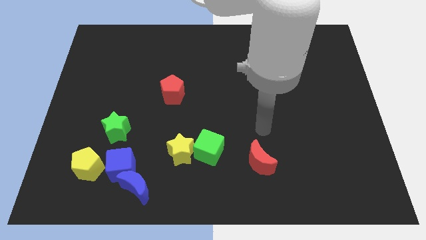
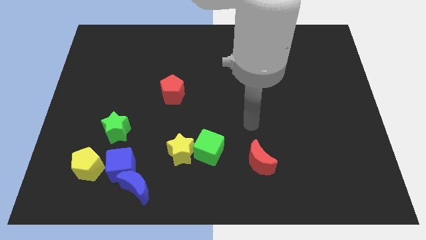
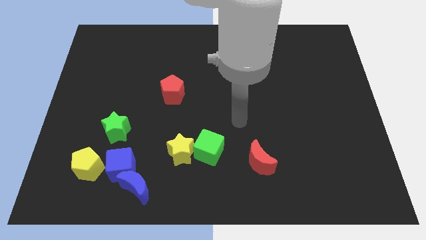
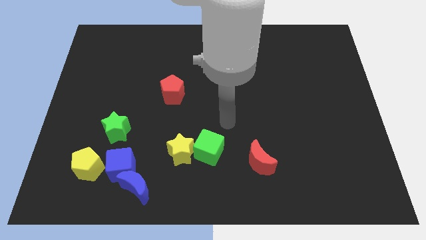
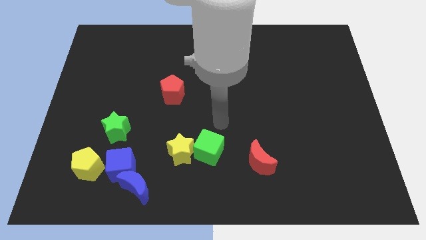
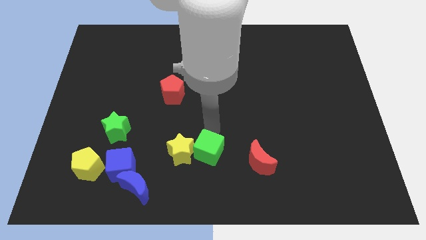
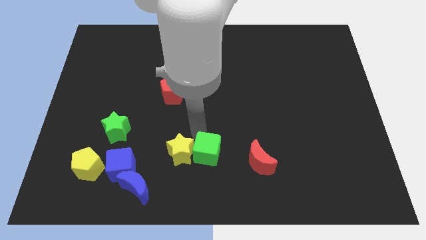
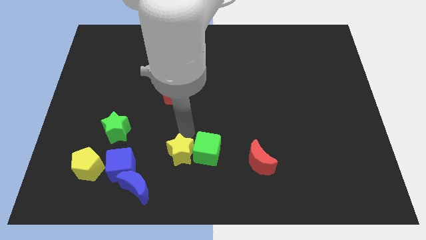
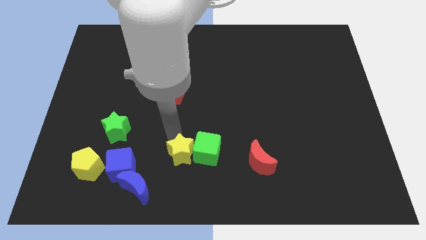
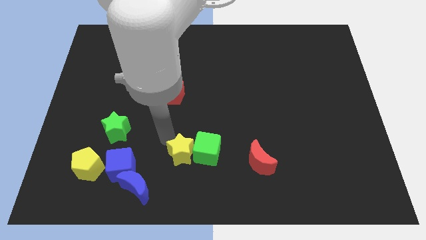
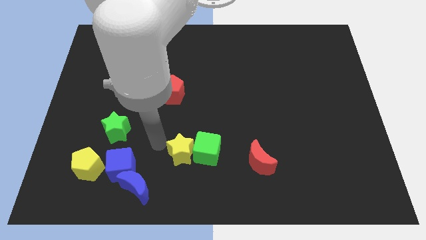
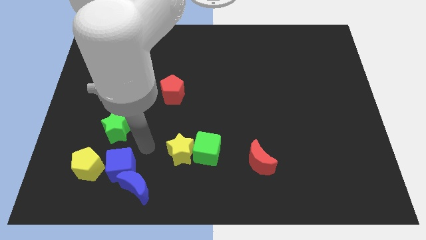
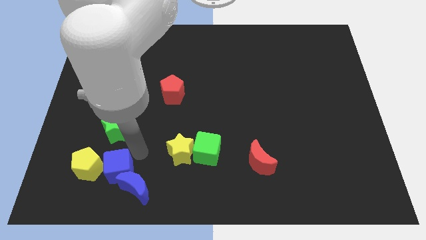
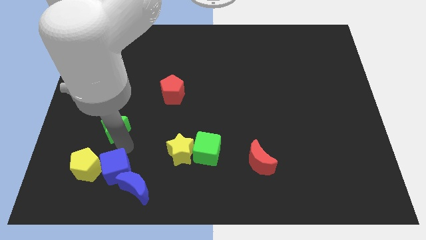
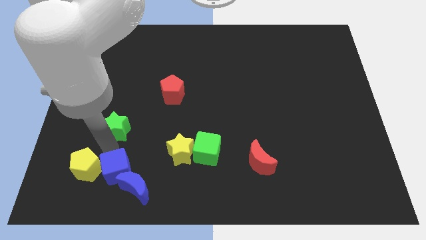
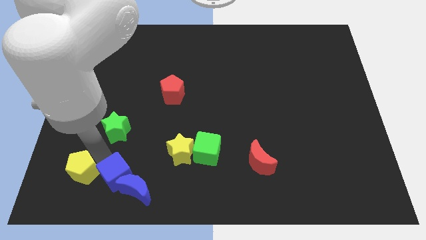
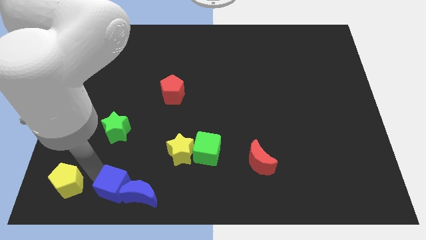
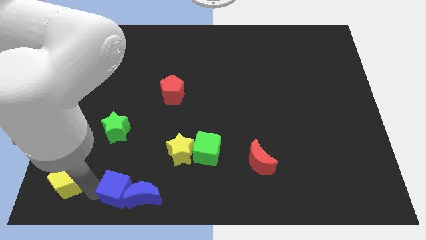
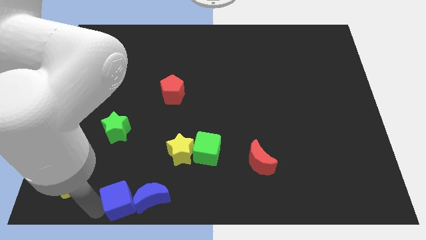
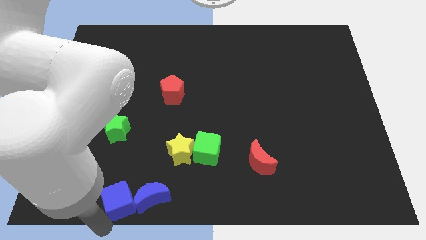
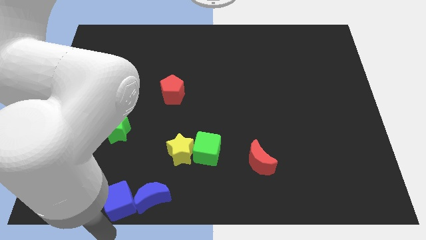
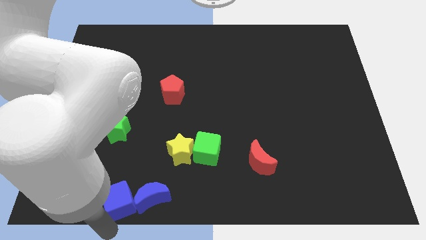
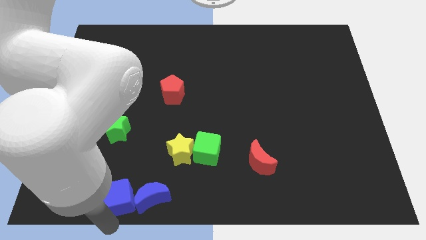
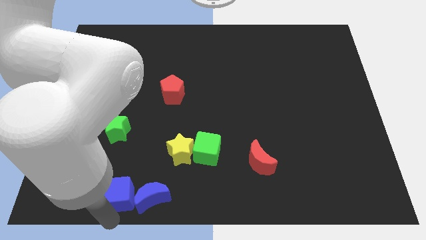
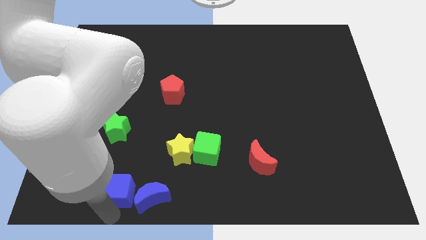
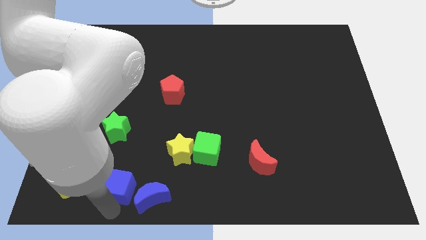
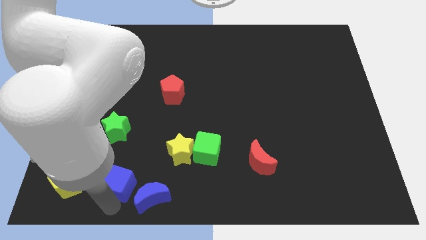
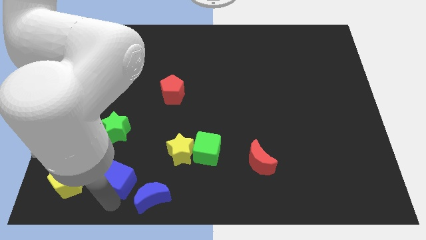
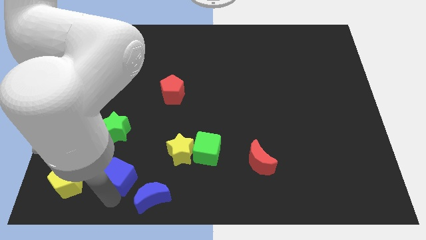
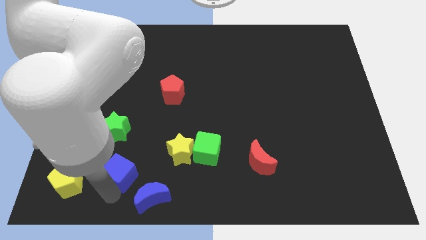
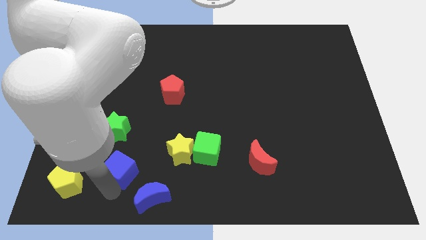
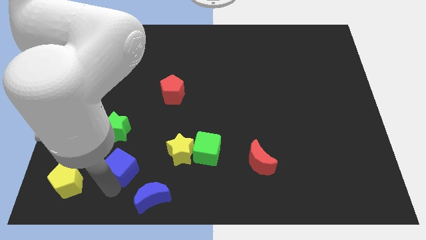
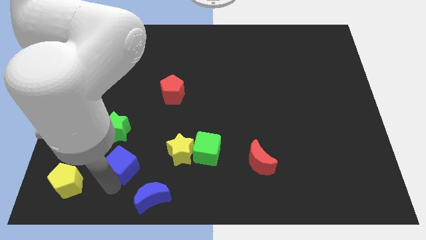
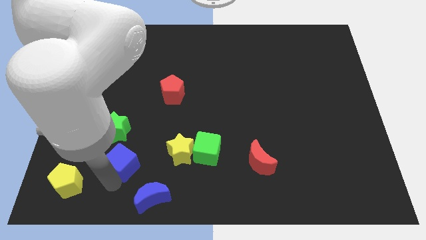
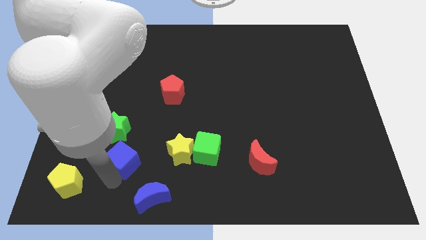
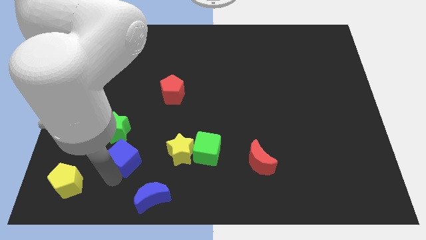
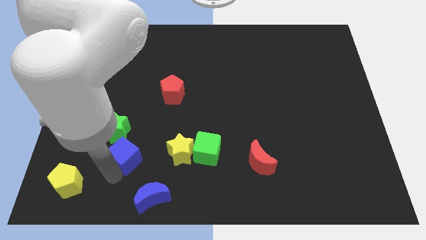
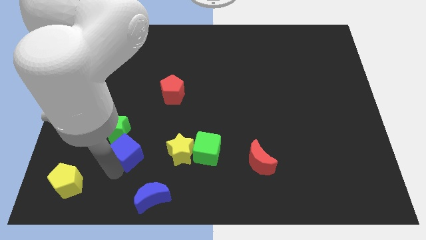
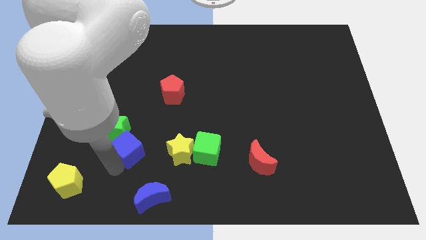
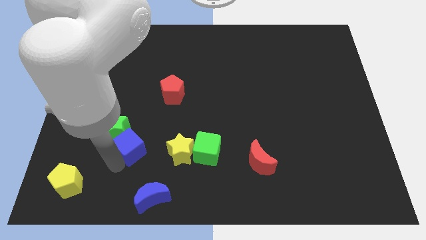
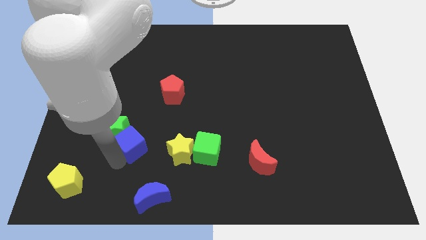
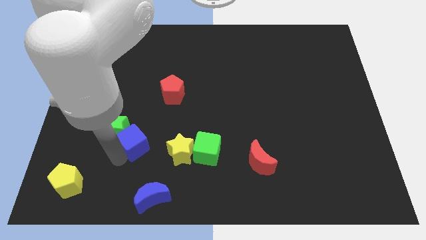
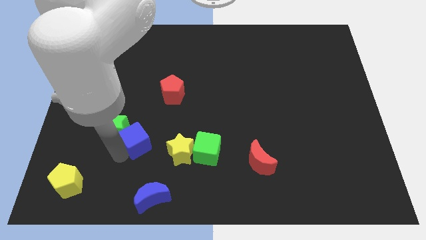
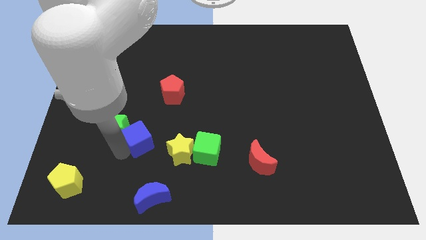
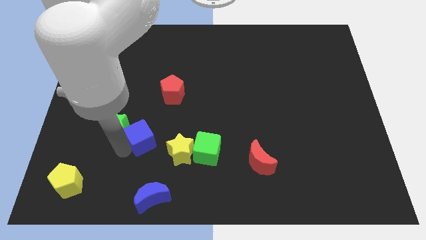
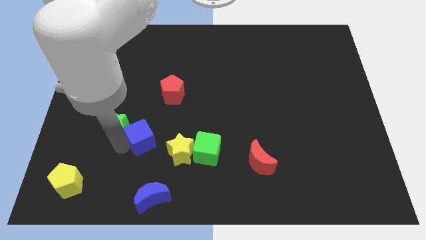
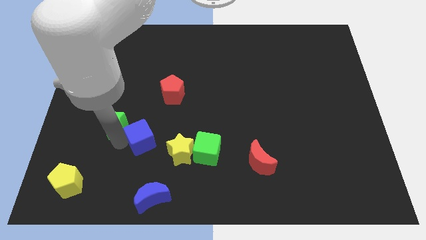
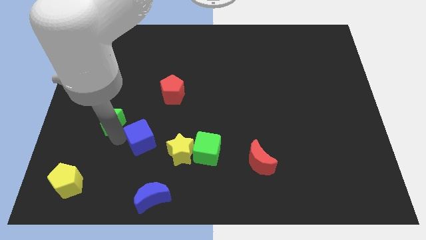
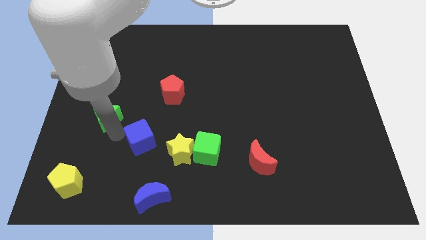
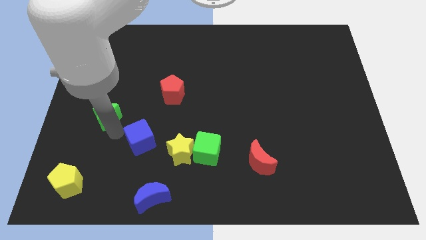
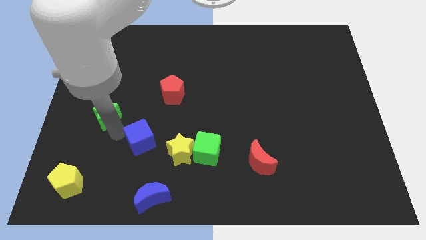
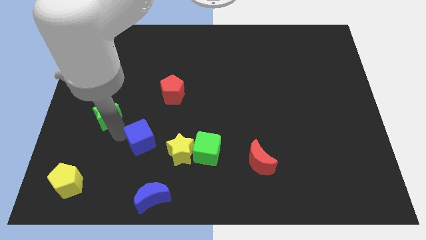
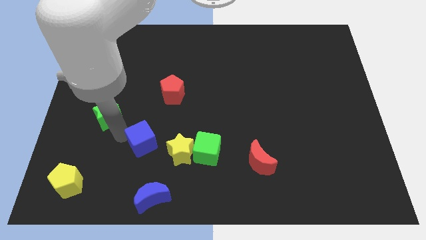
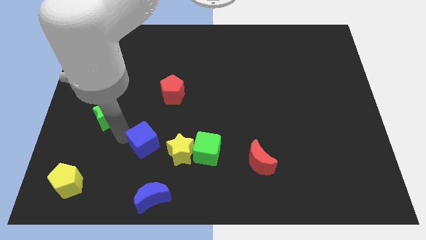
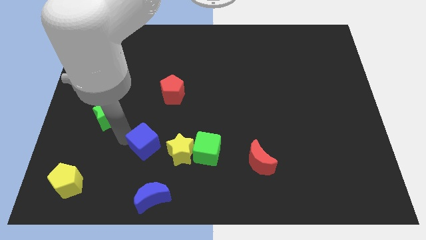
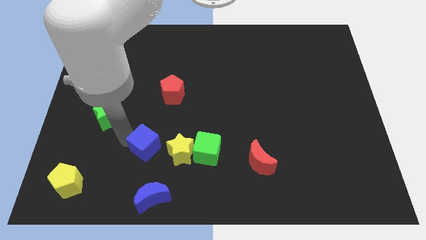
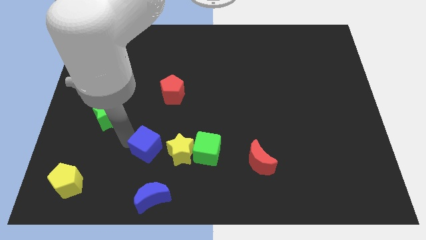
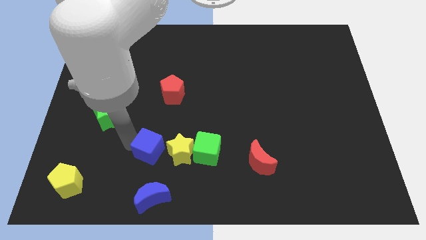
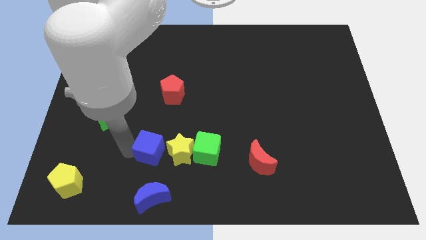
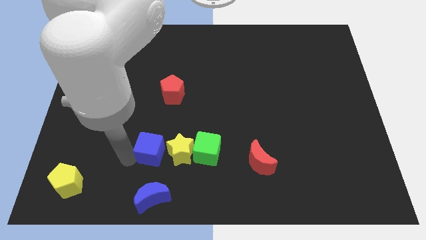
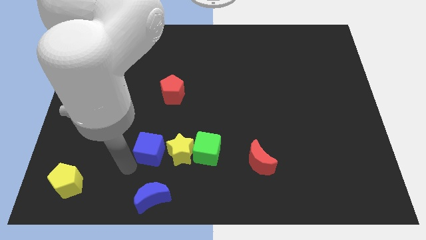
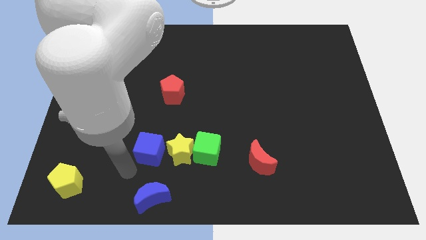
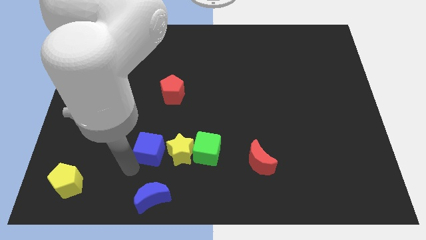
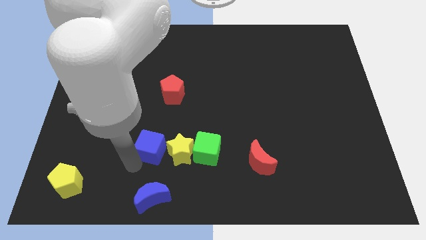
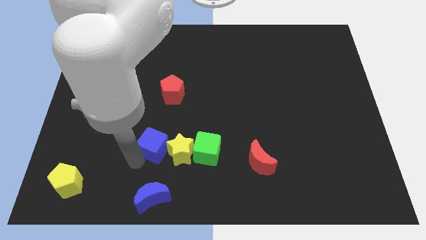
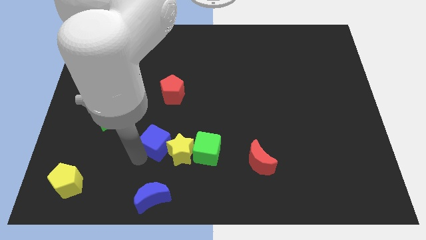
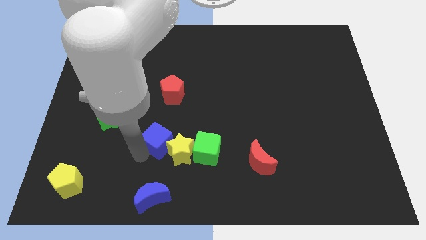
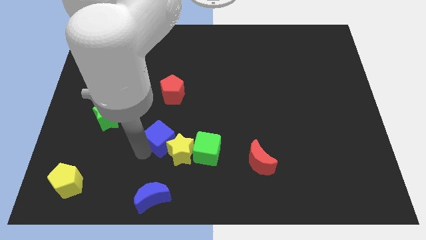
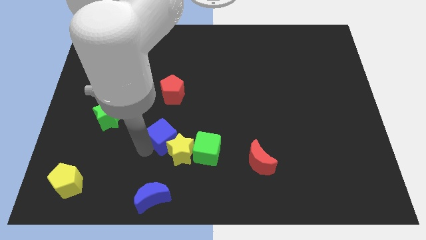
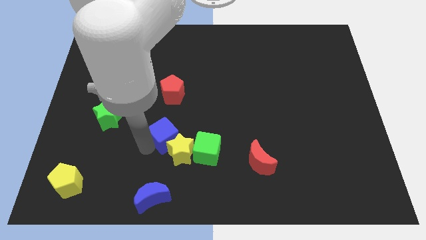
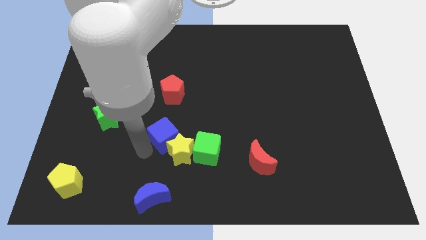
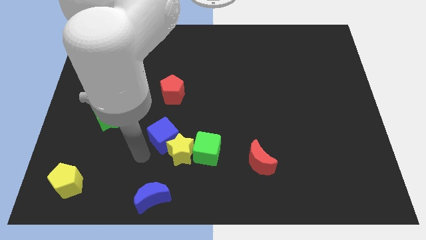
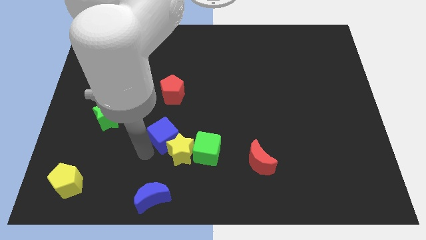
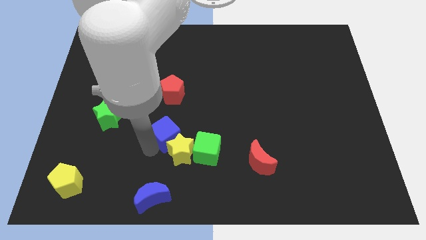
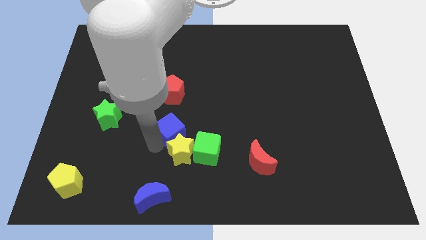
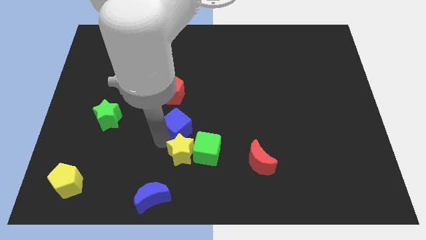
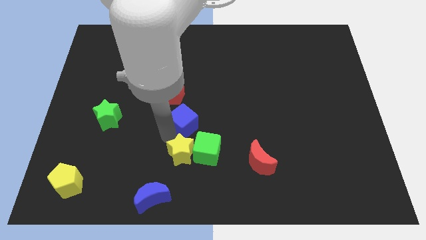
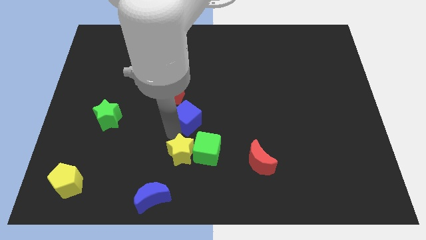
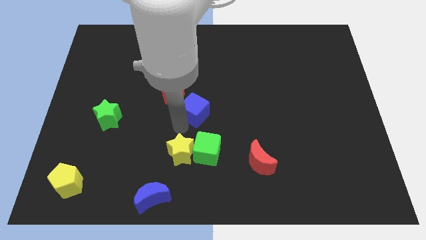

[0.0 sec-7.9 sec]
push the blue cube up and to the right diagonally
